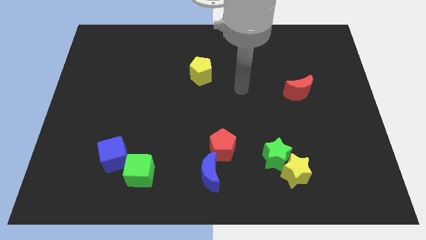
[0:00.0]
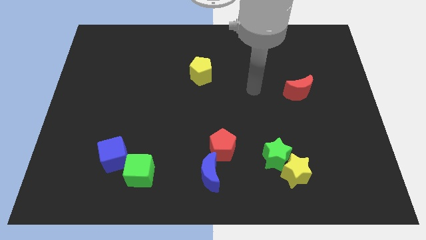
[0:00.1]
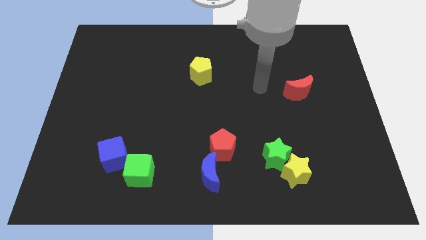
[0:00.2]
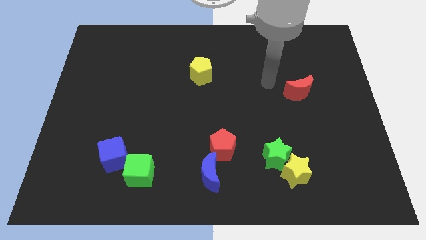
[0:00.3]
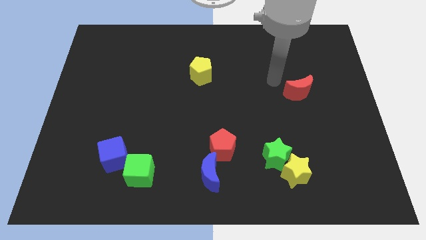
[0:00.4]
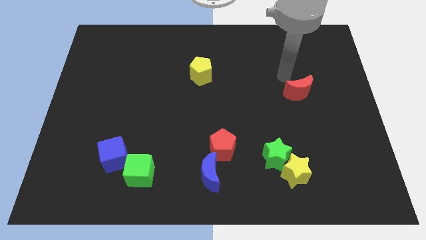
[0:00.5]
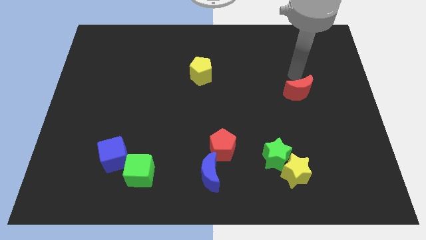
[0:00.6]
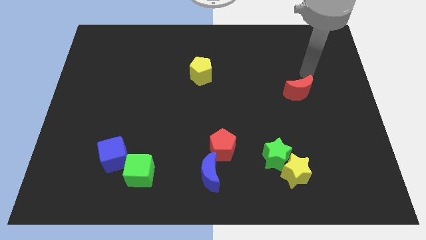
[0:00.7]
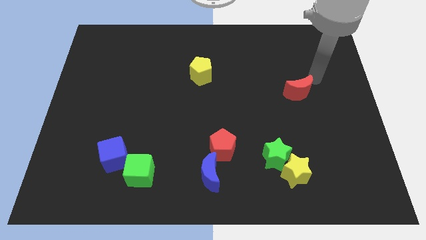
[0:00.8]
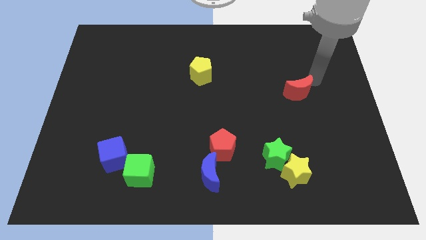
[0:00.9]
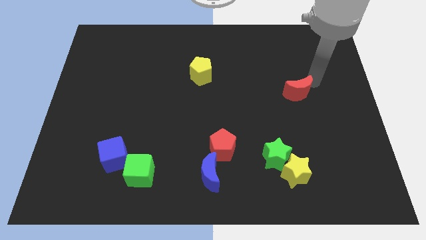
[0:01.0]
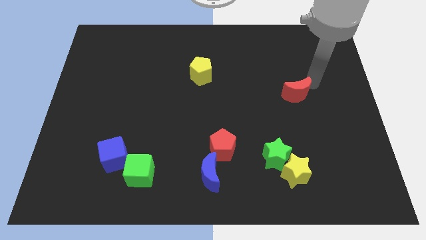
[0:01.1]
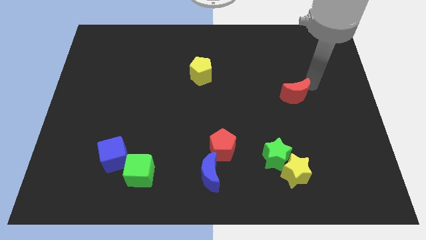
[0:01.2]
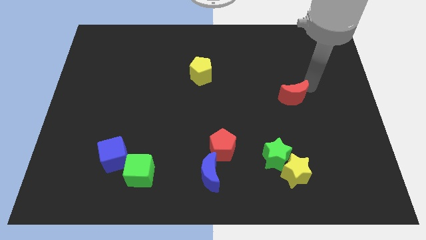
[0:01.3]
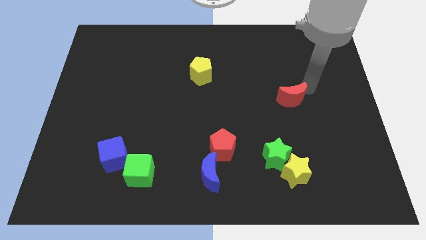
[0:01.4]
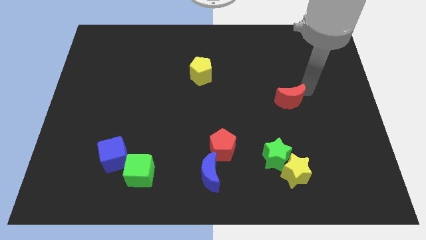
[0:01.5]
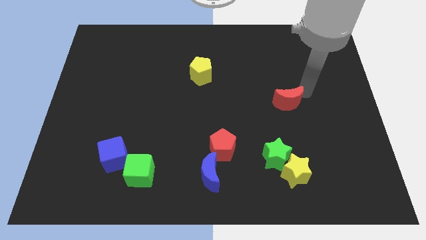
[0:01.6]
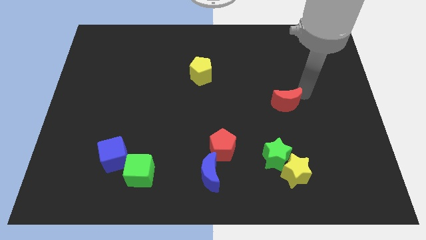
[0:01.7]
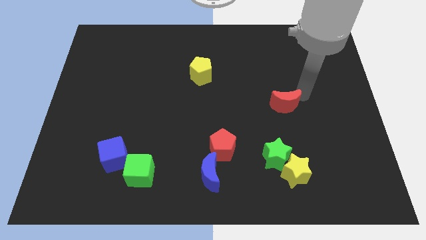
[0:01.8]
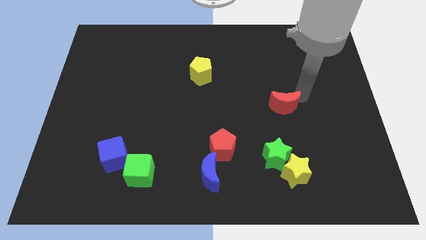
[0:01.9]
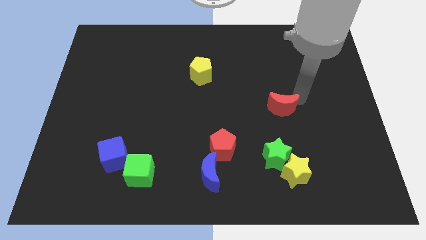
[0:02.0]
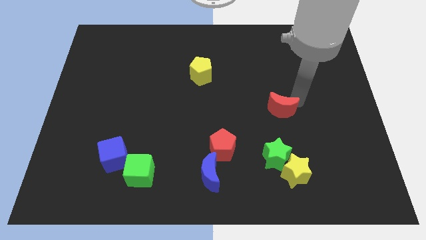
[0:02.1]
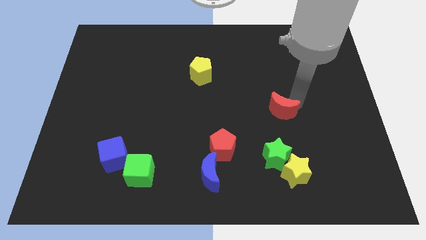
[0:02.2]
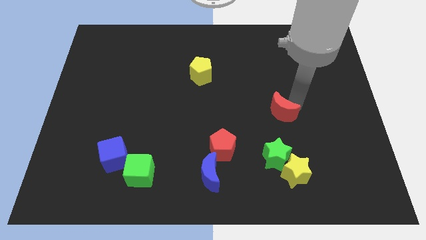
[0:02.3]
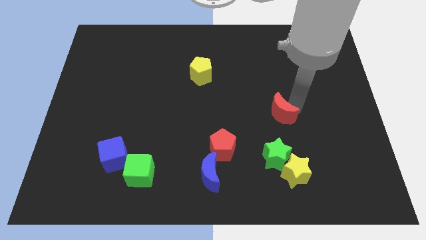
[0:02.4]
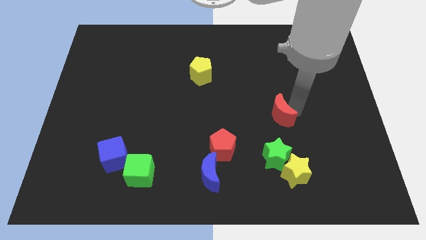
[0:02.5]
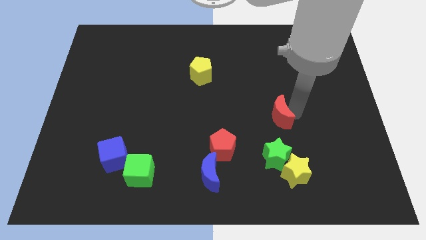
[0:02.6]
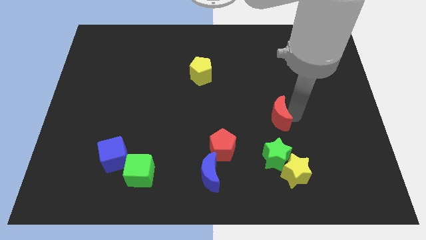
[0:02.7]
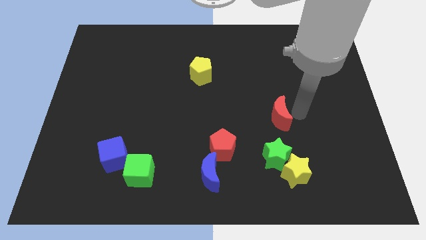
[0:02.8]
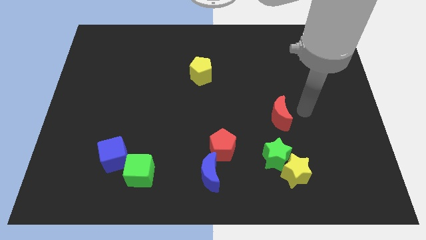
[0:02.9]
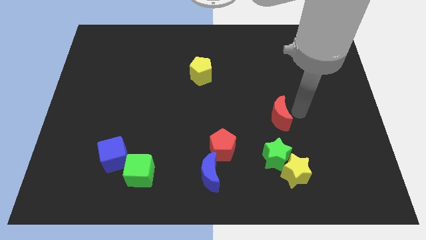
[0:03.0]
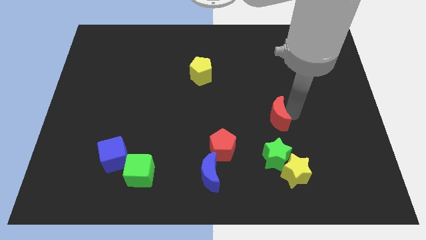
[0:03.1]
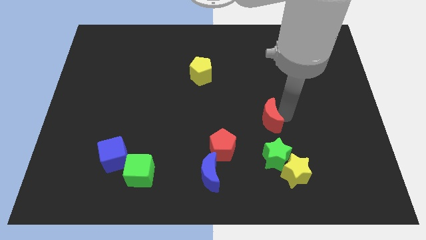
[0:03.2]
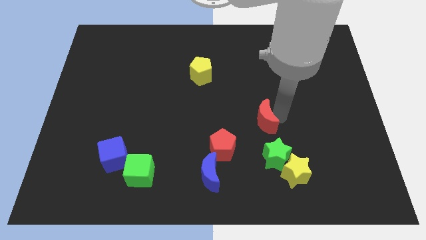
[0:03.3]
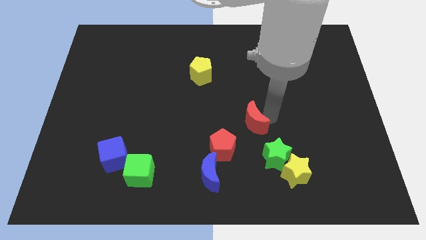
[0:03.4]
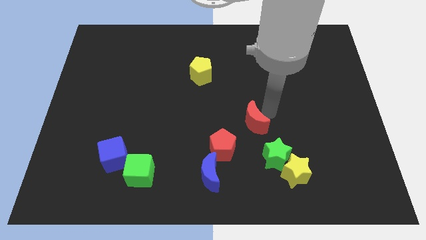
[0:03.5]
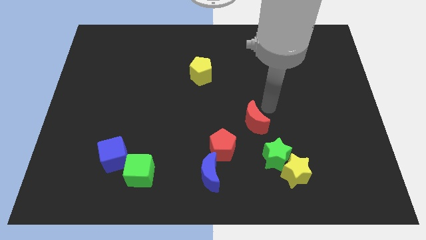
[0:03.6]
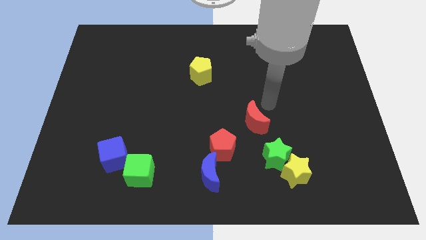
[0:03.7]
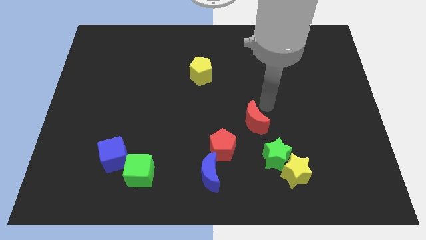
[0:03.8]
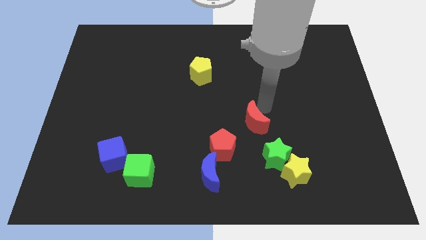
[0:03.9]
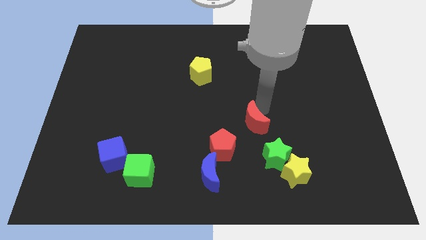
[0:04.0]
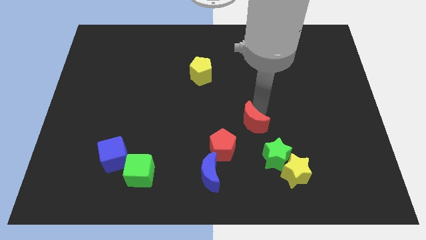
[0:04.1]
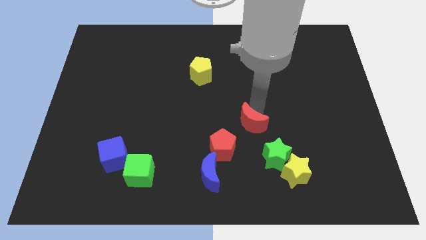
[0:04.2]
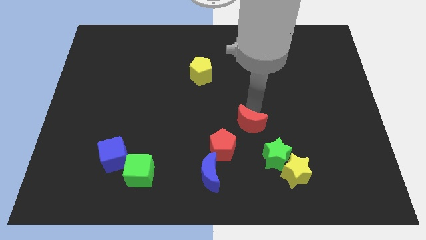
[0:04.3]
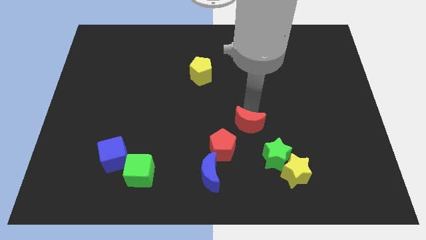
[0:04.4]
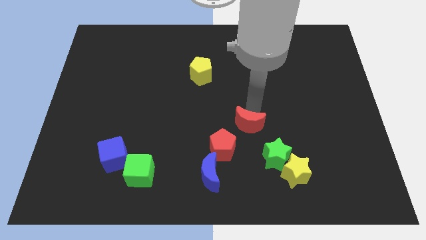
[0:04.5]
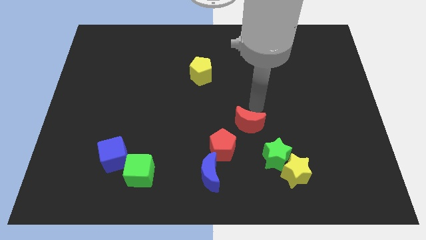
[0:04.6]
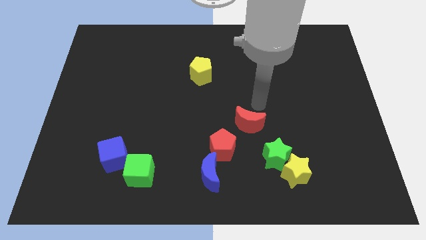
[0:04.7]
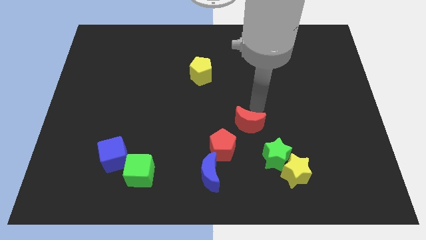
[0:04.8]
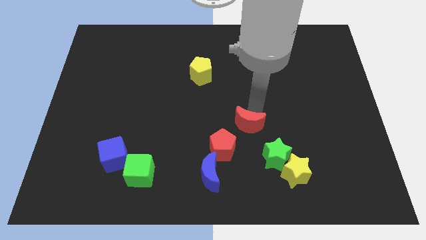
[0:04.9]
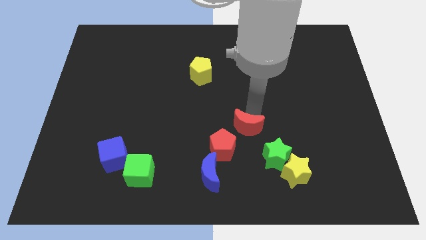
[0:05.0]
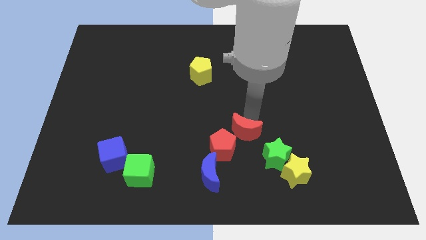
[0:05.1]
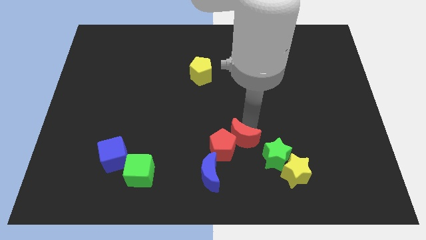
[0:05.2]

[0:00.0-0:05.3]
move the red moon towards the red pentagon

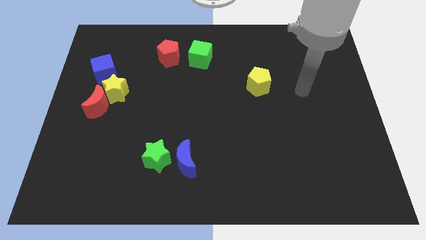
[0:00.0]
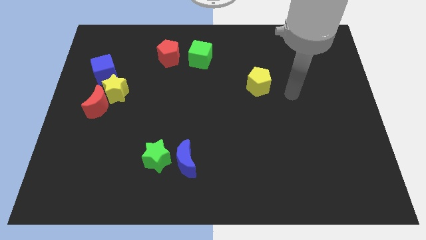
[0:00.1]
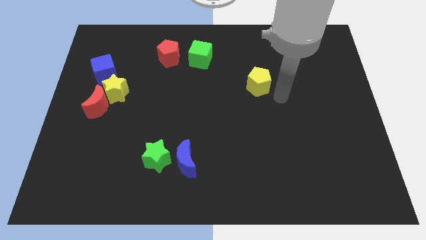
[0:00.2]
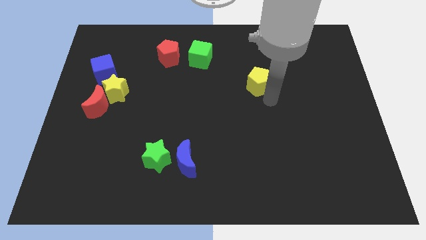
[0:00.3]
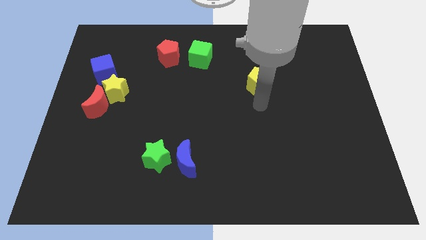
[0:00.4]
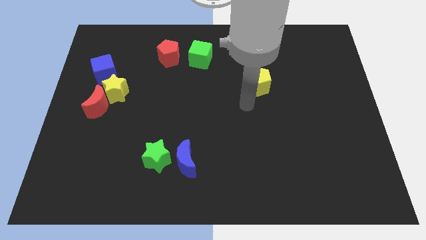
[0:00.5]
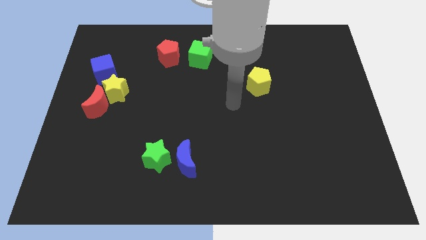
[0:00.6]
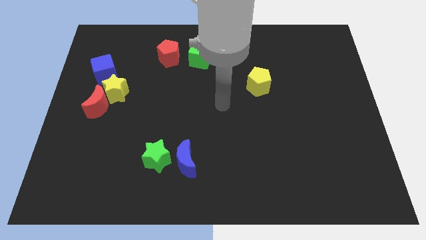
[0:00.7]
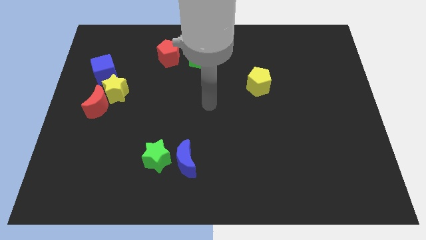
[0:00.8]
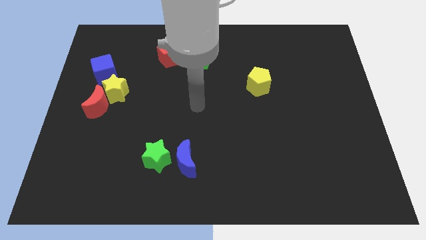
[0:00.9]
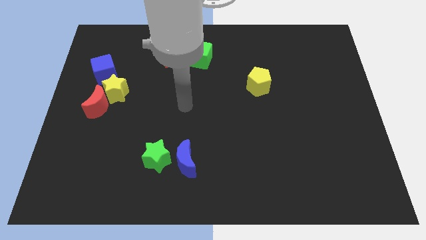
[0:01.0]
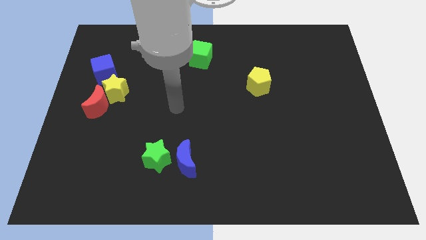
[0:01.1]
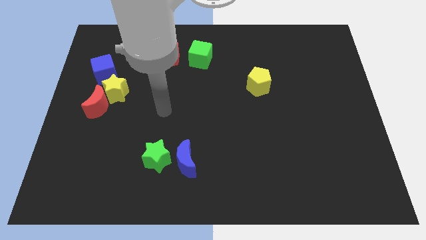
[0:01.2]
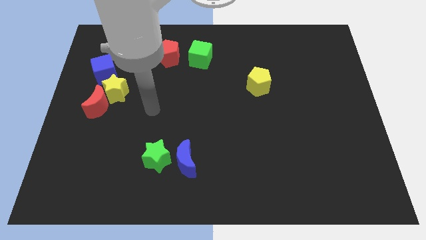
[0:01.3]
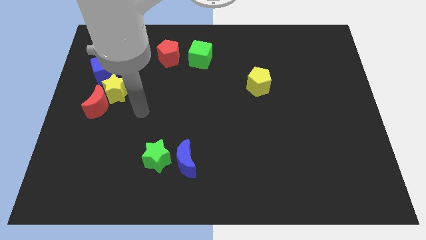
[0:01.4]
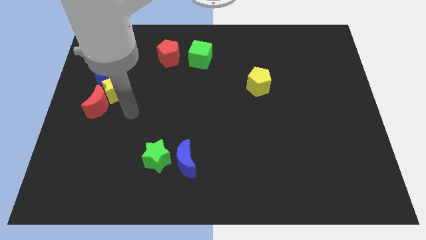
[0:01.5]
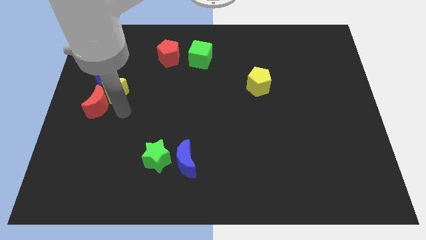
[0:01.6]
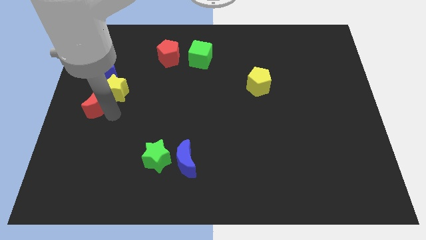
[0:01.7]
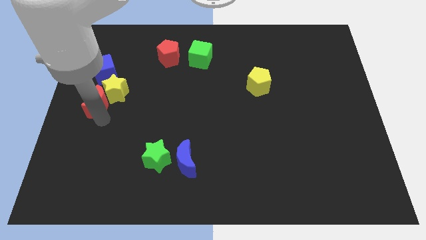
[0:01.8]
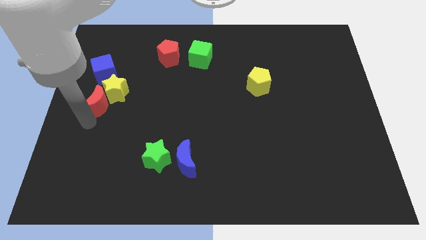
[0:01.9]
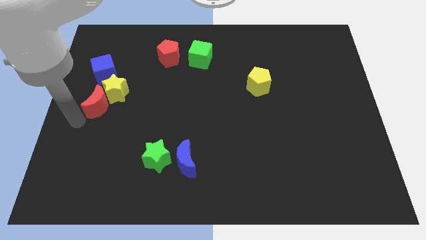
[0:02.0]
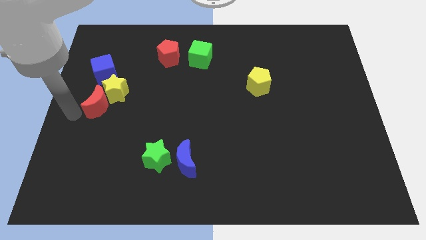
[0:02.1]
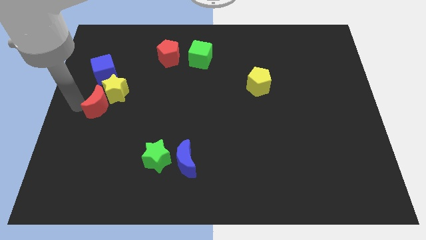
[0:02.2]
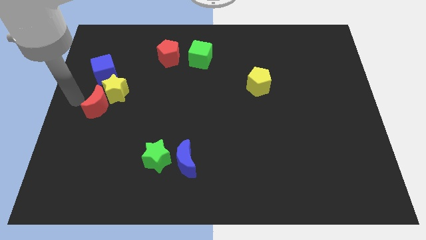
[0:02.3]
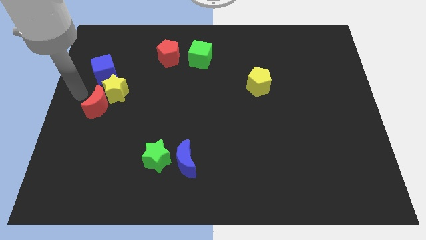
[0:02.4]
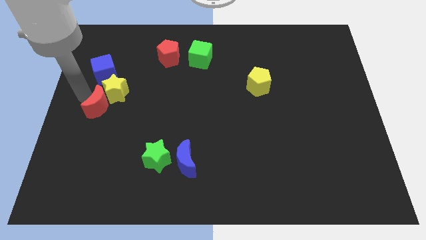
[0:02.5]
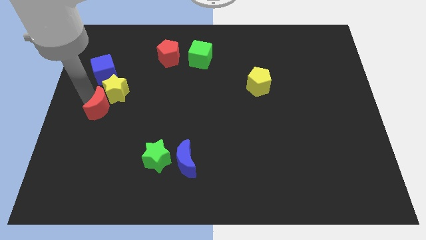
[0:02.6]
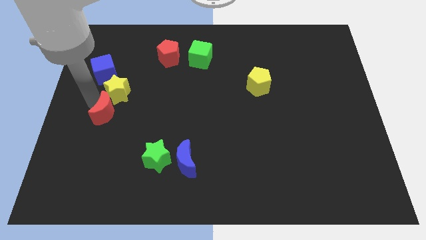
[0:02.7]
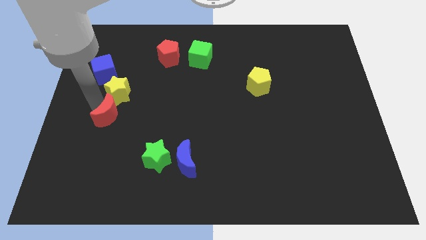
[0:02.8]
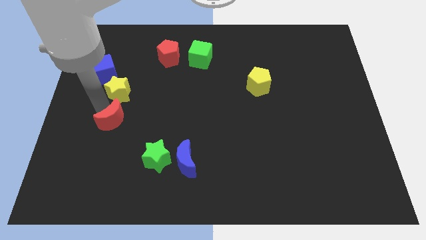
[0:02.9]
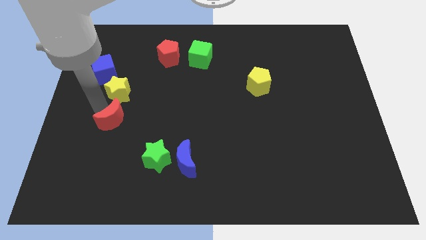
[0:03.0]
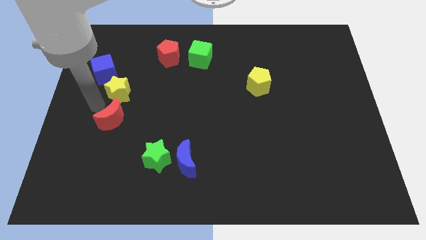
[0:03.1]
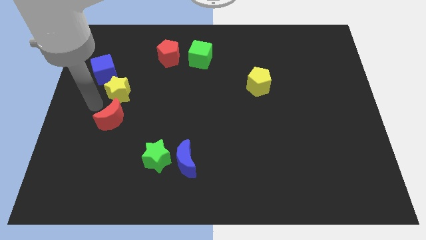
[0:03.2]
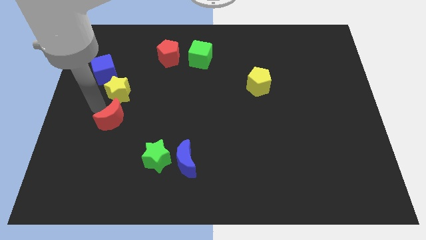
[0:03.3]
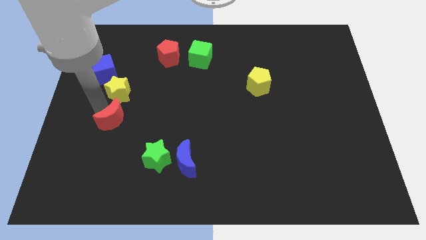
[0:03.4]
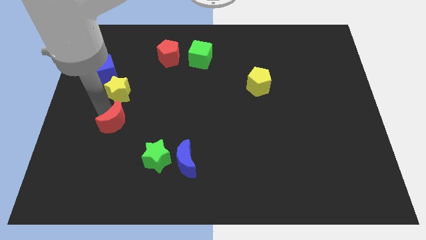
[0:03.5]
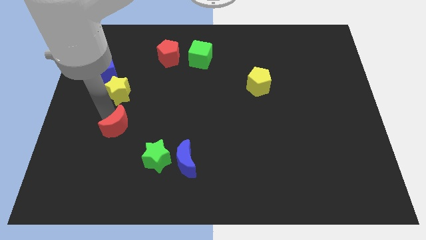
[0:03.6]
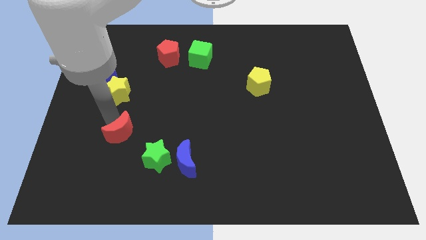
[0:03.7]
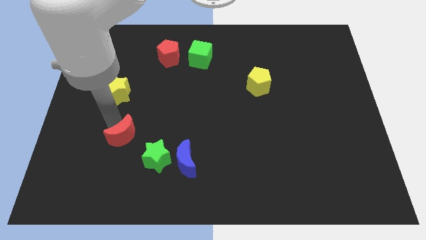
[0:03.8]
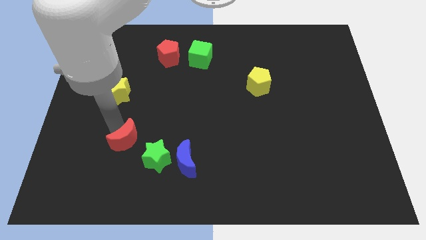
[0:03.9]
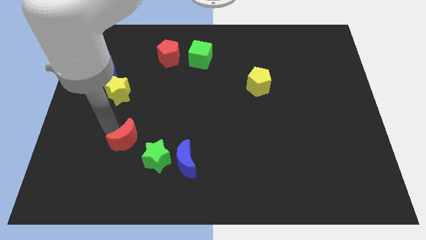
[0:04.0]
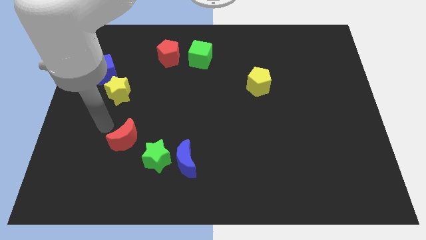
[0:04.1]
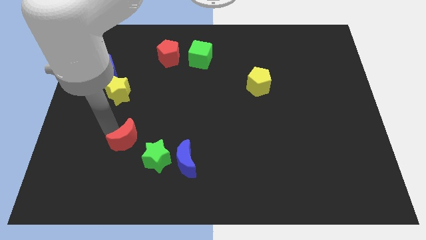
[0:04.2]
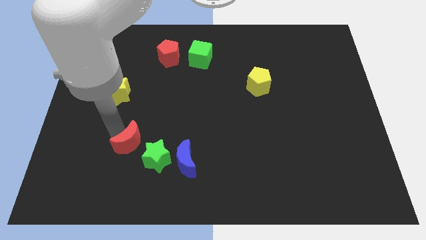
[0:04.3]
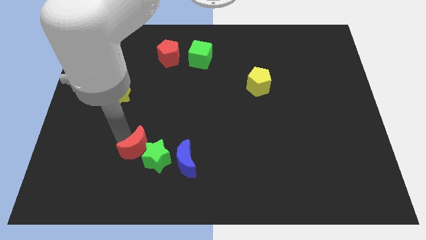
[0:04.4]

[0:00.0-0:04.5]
move the red moon to the green star
